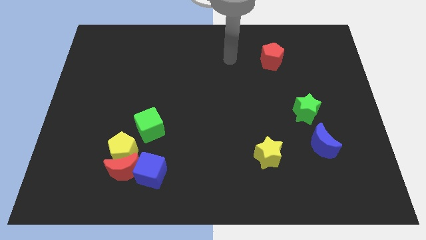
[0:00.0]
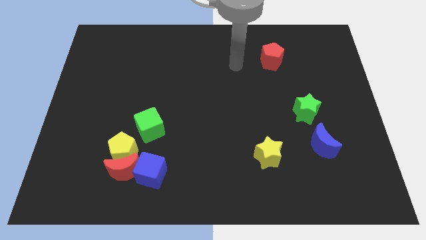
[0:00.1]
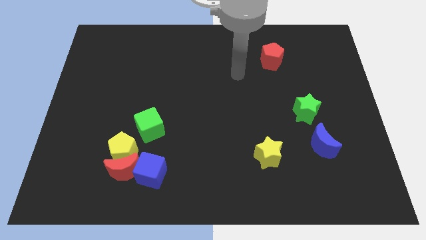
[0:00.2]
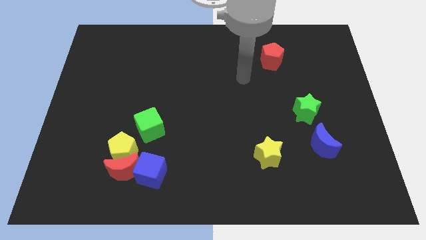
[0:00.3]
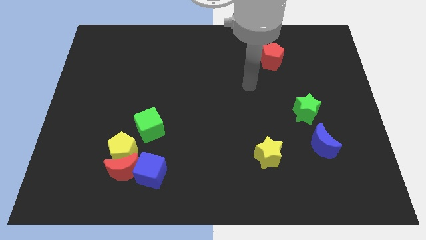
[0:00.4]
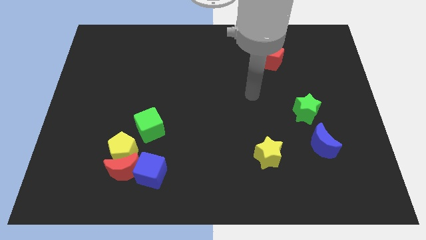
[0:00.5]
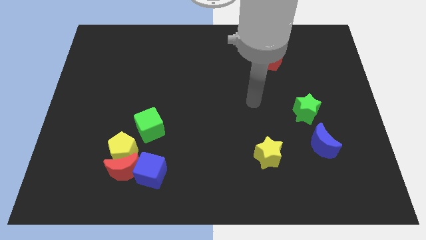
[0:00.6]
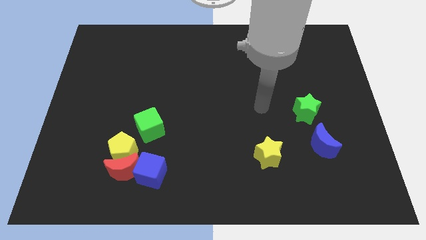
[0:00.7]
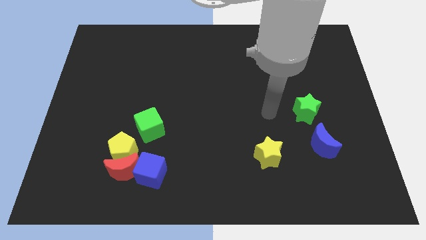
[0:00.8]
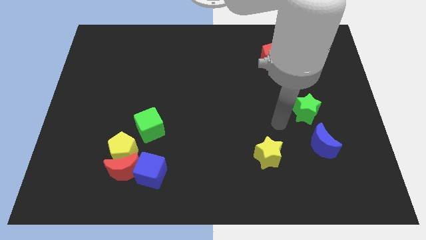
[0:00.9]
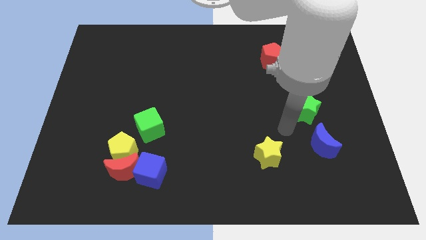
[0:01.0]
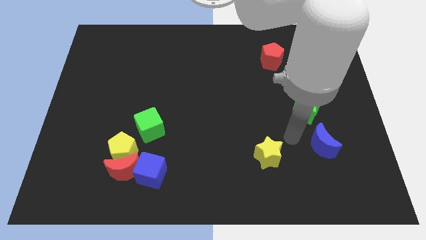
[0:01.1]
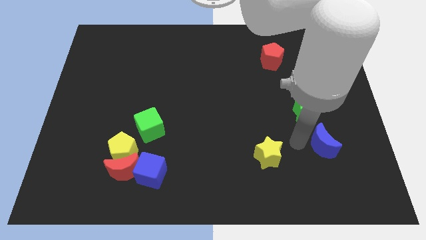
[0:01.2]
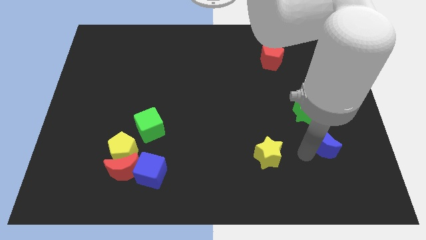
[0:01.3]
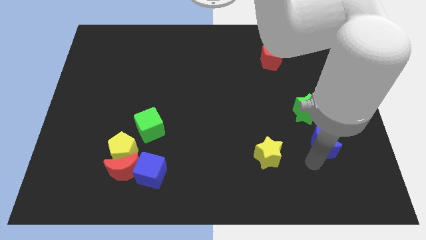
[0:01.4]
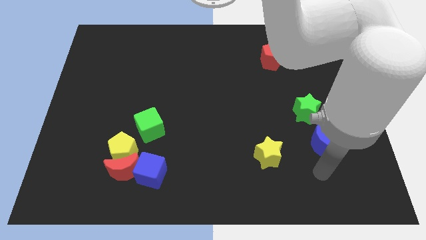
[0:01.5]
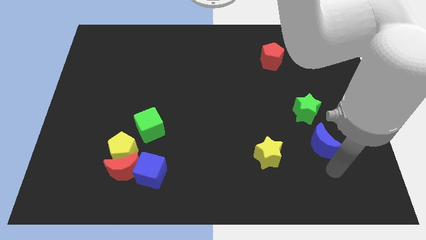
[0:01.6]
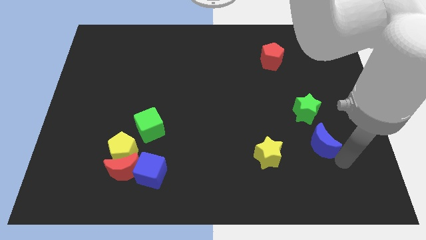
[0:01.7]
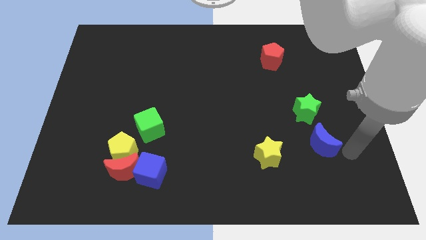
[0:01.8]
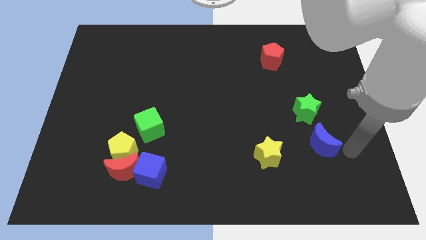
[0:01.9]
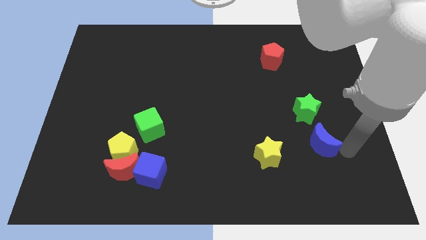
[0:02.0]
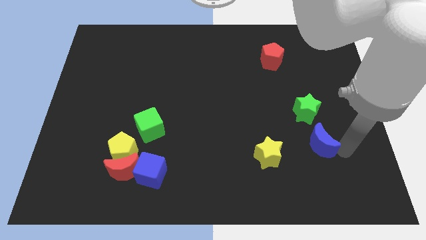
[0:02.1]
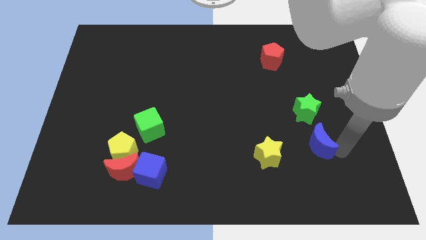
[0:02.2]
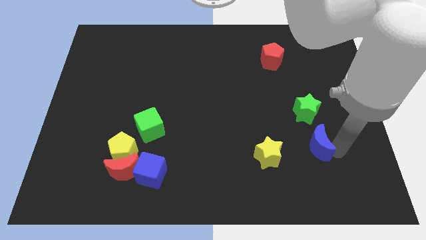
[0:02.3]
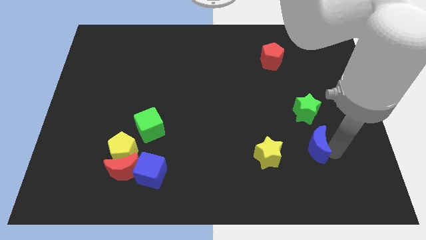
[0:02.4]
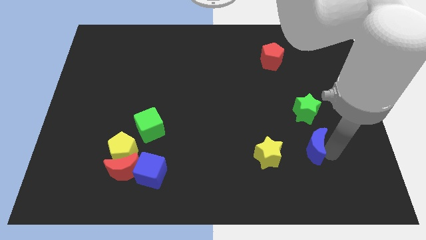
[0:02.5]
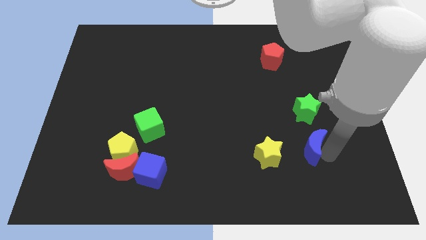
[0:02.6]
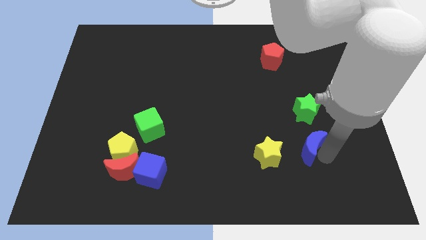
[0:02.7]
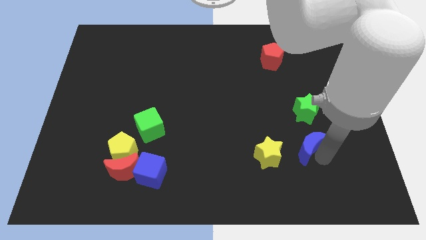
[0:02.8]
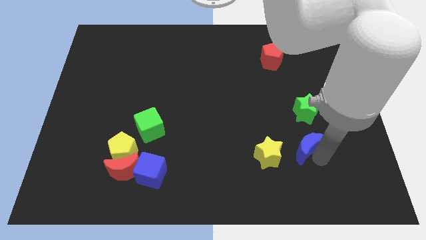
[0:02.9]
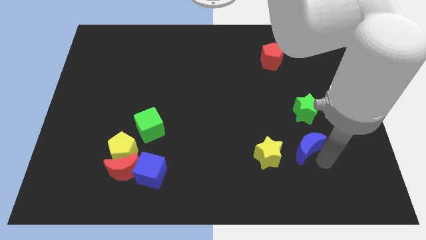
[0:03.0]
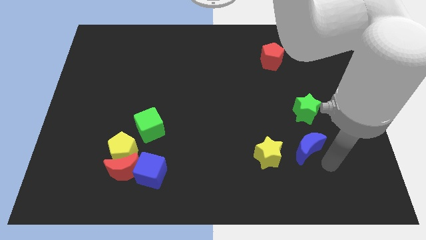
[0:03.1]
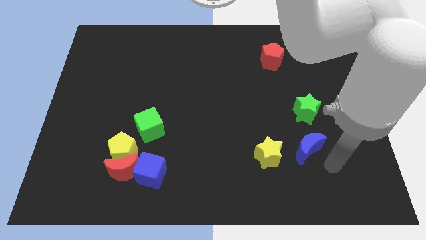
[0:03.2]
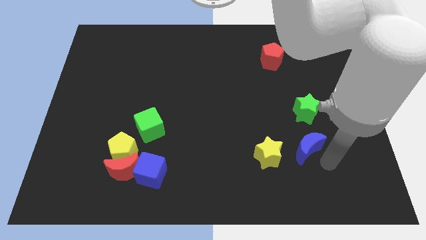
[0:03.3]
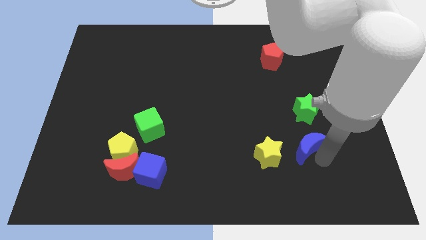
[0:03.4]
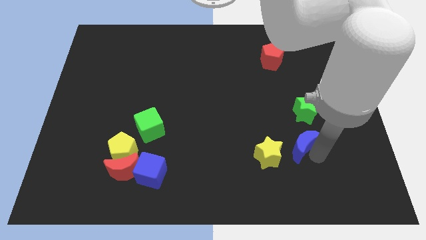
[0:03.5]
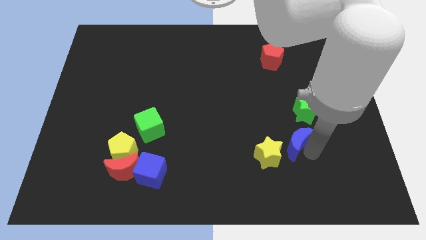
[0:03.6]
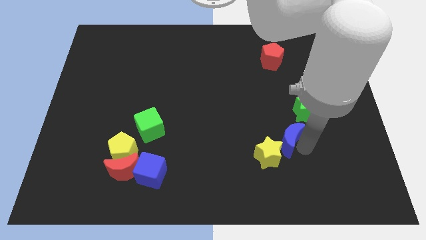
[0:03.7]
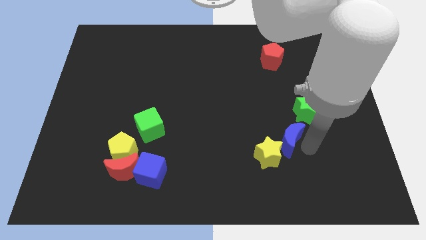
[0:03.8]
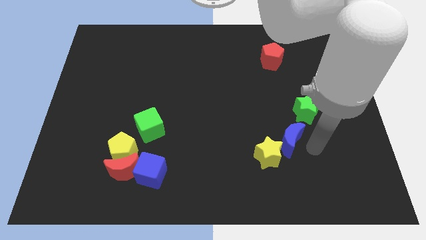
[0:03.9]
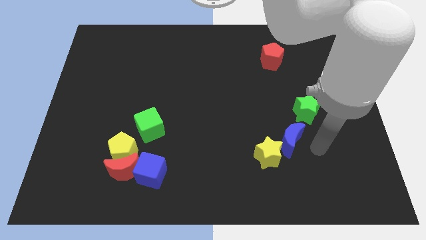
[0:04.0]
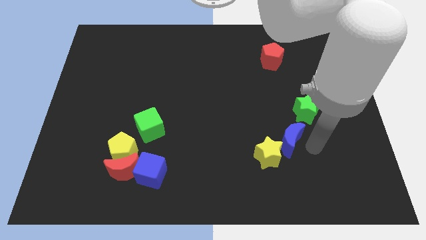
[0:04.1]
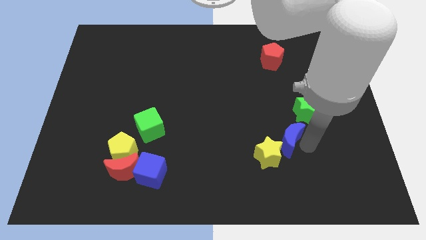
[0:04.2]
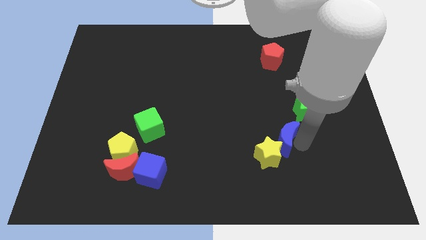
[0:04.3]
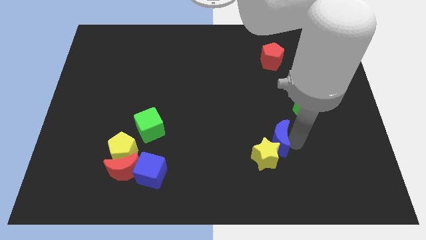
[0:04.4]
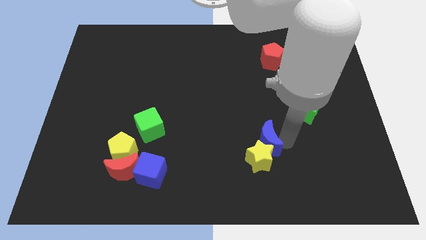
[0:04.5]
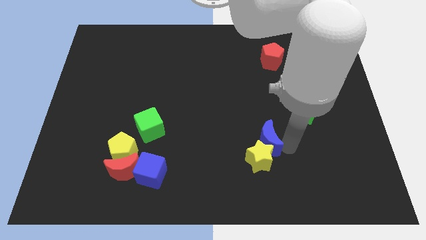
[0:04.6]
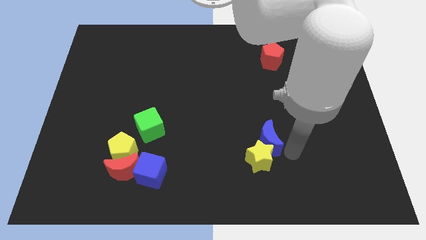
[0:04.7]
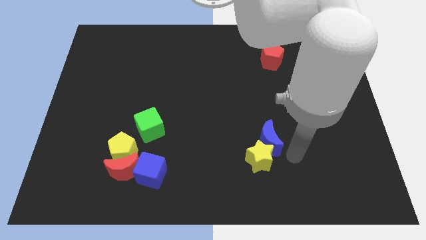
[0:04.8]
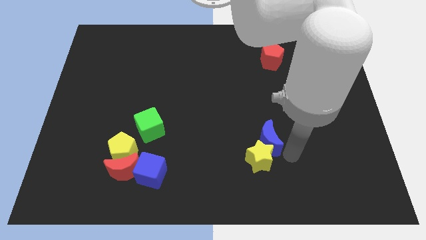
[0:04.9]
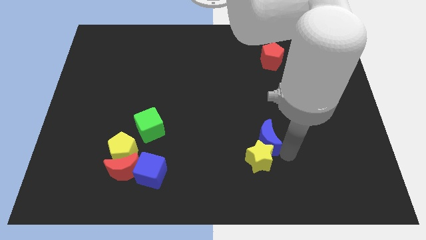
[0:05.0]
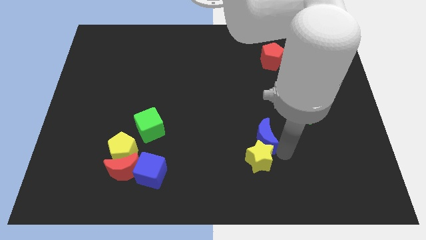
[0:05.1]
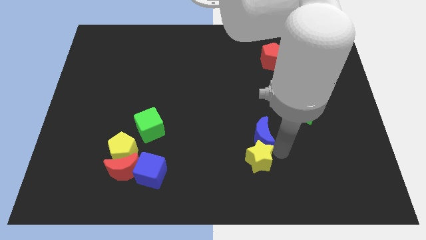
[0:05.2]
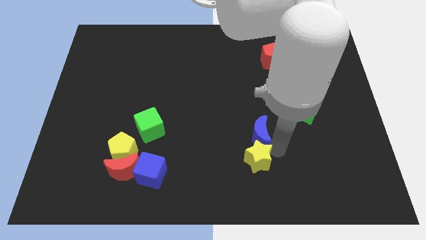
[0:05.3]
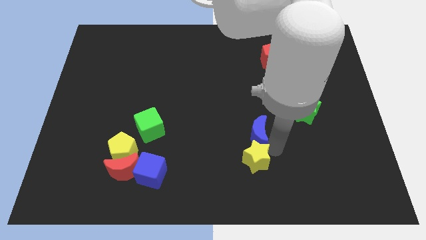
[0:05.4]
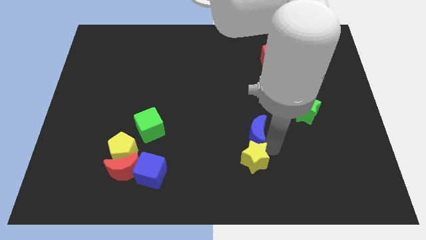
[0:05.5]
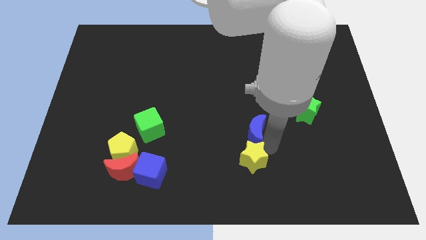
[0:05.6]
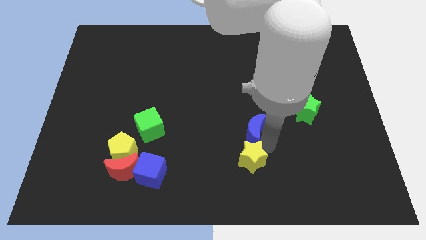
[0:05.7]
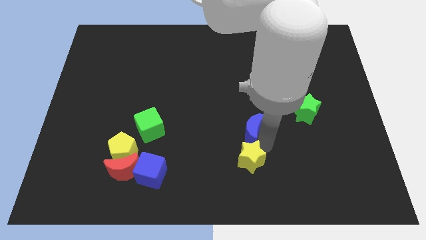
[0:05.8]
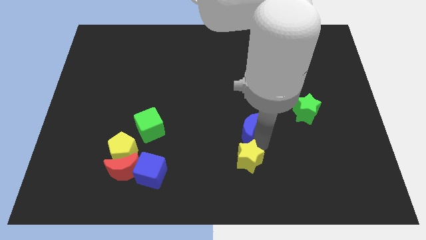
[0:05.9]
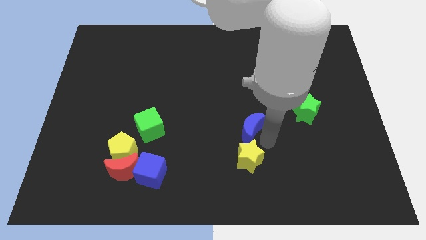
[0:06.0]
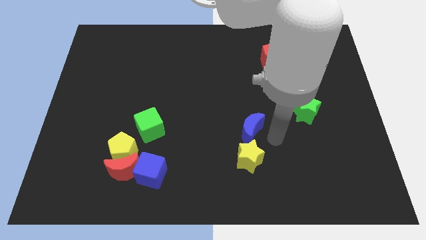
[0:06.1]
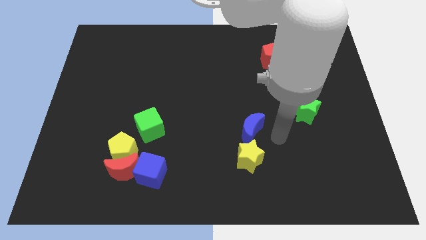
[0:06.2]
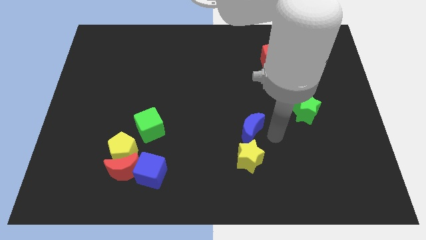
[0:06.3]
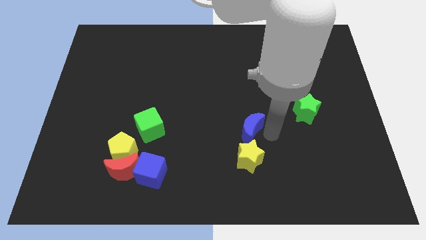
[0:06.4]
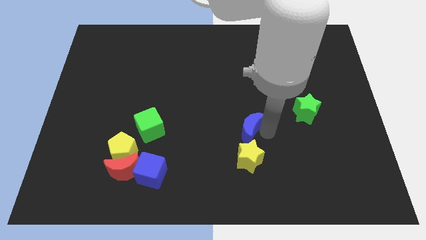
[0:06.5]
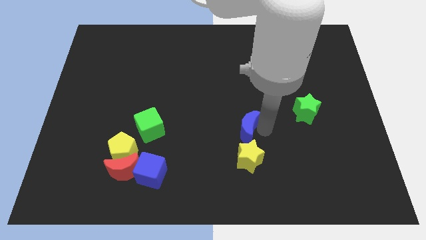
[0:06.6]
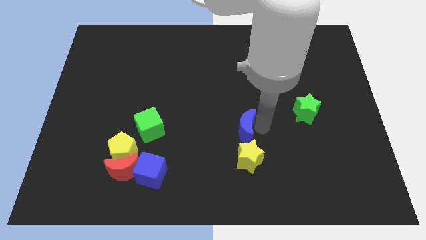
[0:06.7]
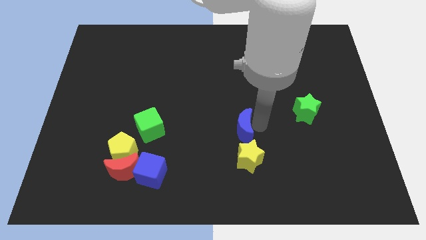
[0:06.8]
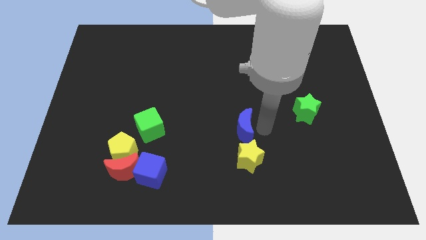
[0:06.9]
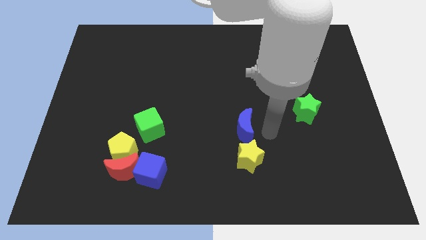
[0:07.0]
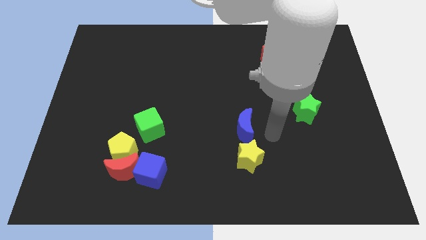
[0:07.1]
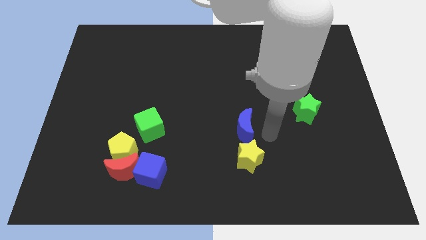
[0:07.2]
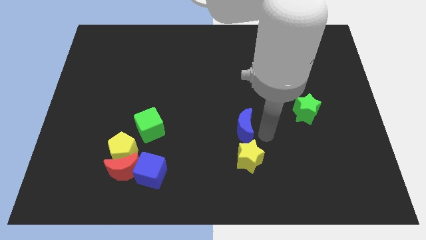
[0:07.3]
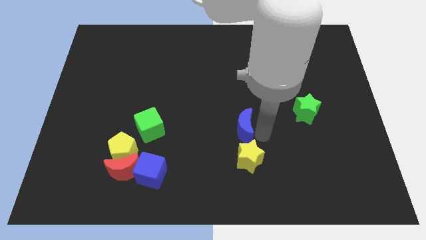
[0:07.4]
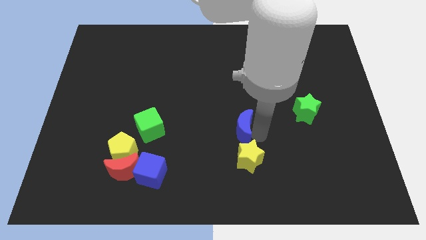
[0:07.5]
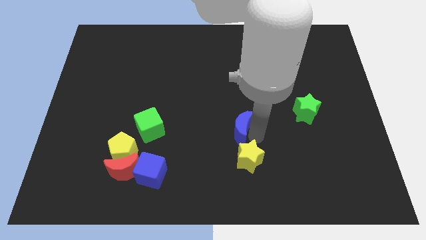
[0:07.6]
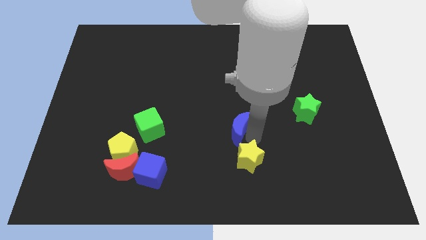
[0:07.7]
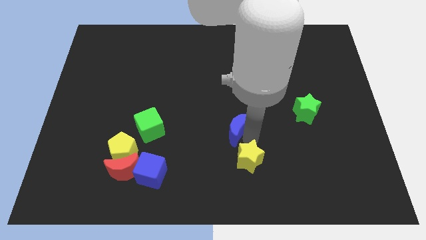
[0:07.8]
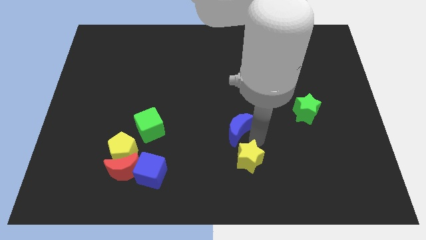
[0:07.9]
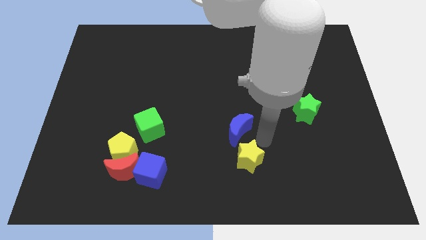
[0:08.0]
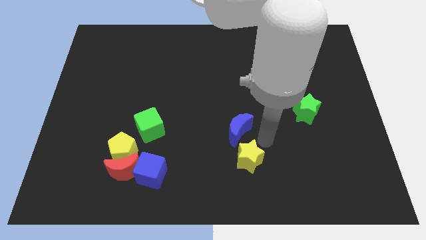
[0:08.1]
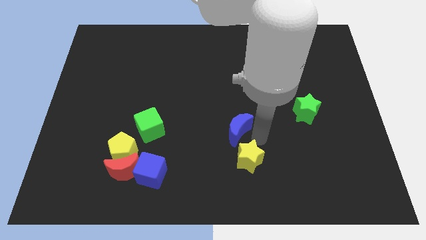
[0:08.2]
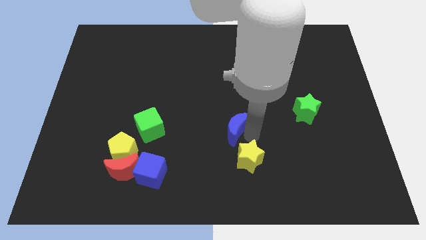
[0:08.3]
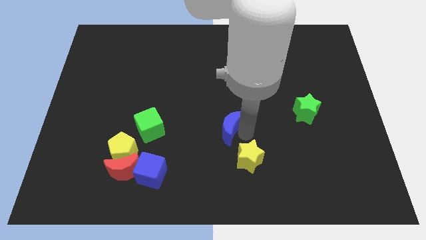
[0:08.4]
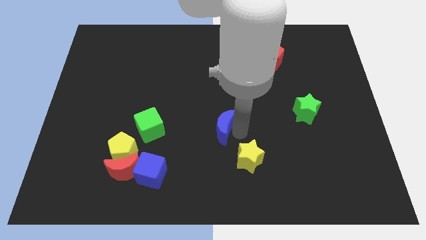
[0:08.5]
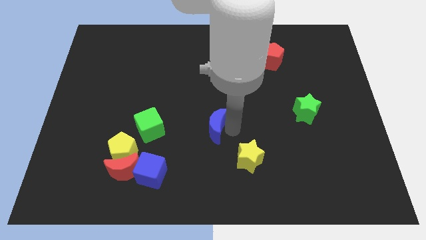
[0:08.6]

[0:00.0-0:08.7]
slide the blue moon right of the green cube
